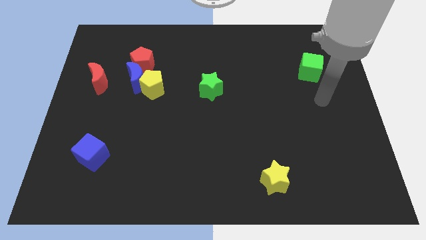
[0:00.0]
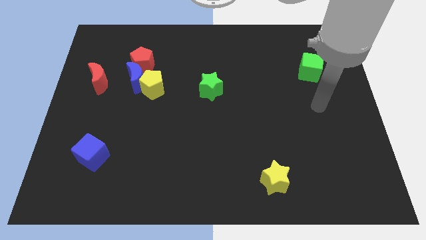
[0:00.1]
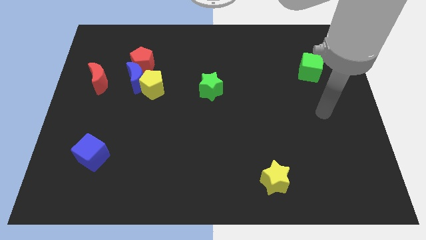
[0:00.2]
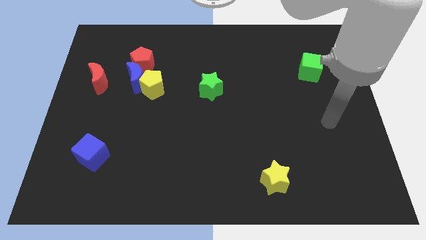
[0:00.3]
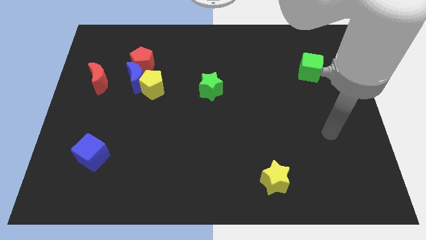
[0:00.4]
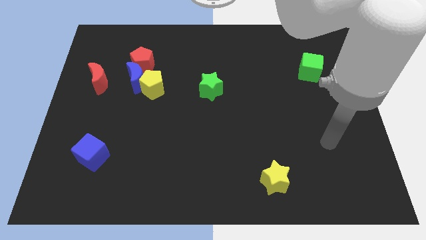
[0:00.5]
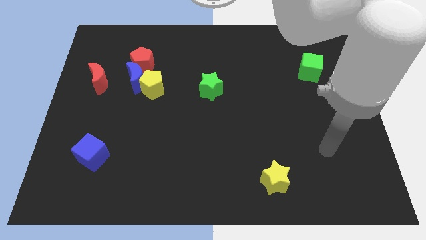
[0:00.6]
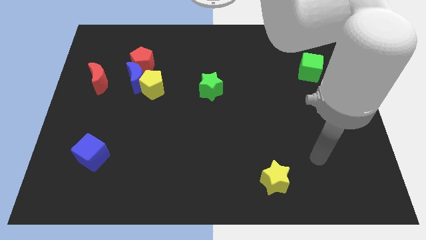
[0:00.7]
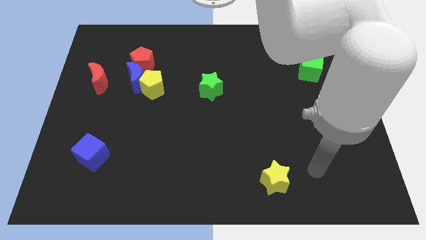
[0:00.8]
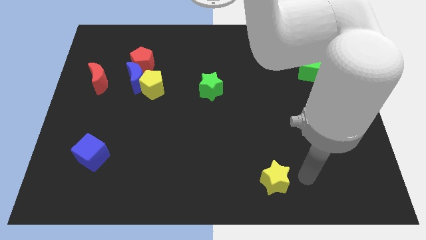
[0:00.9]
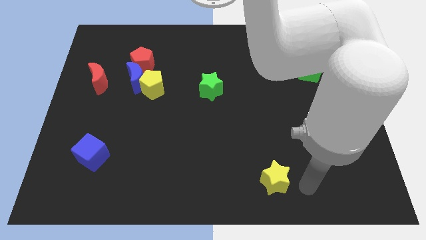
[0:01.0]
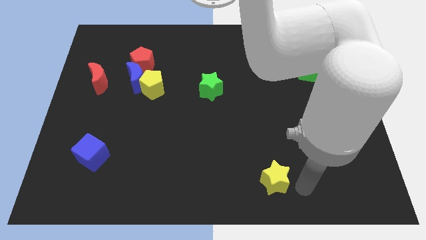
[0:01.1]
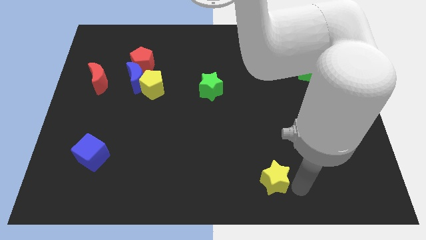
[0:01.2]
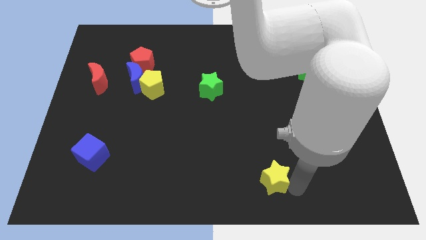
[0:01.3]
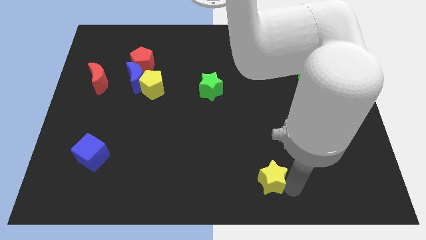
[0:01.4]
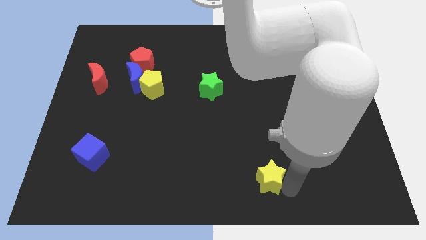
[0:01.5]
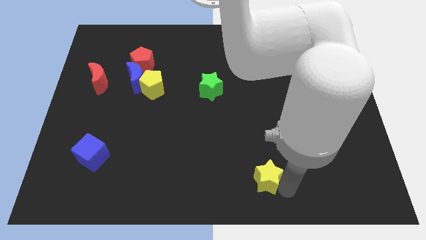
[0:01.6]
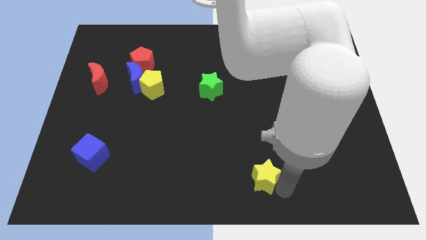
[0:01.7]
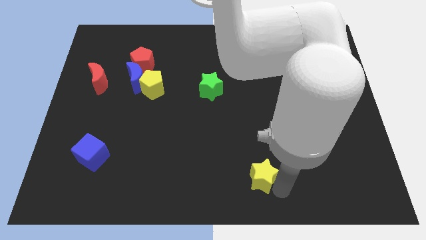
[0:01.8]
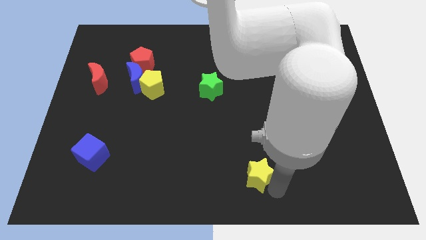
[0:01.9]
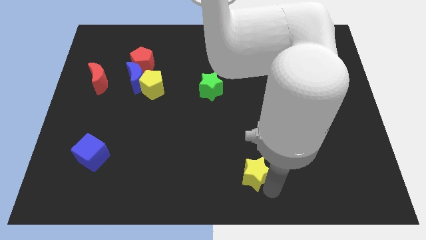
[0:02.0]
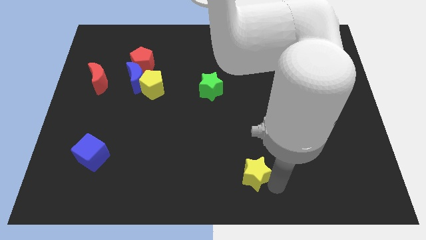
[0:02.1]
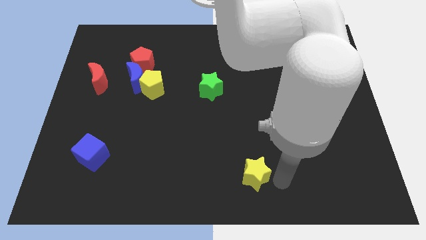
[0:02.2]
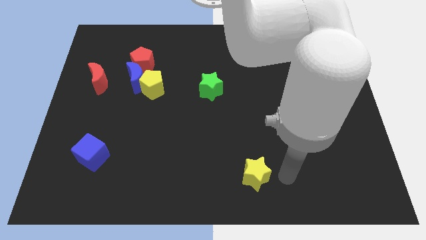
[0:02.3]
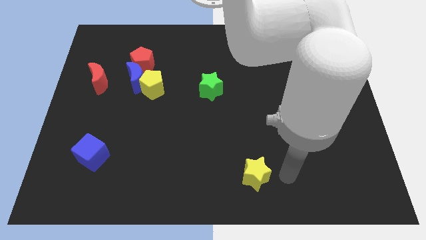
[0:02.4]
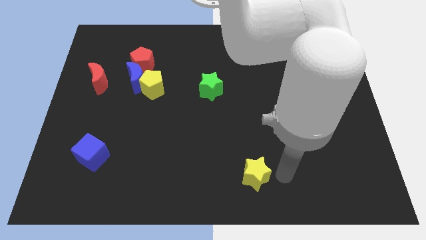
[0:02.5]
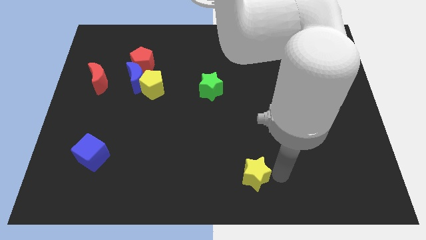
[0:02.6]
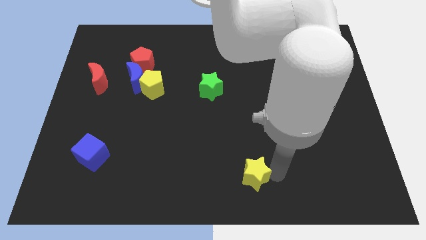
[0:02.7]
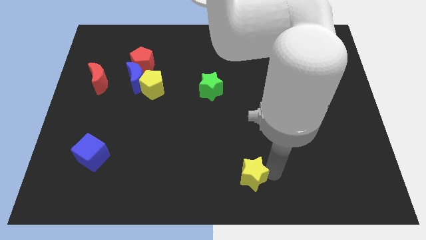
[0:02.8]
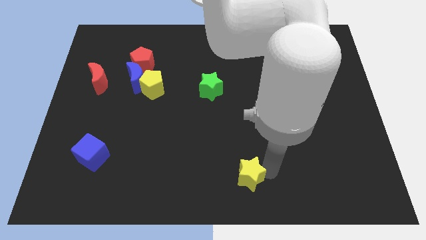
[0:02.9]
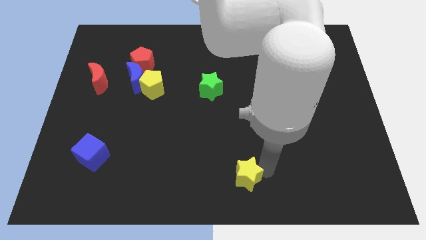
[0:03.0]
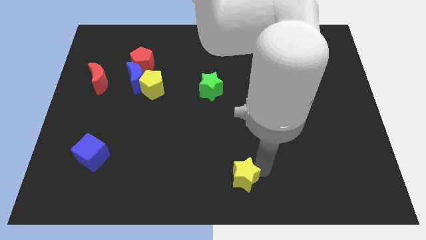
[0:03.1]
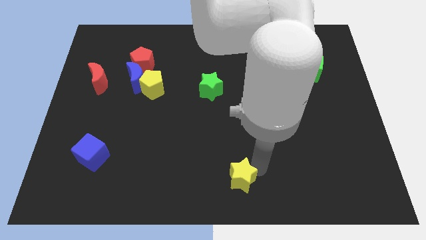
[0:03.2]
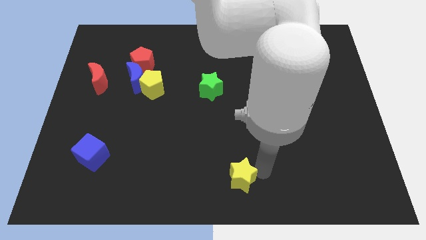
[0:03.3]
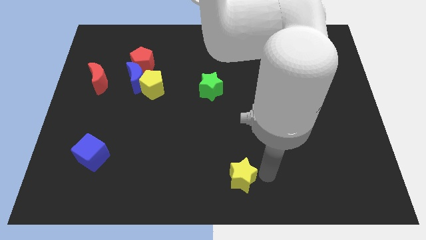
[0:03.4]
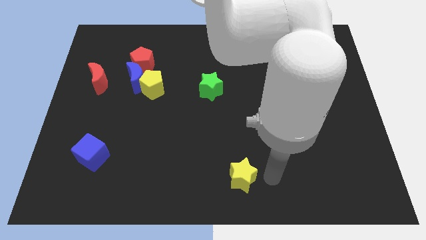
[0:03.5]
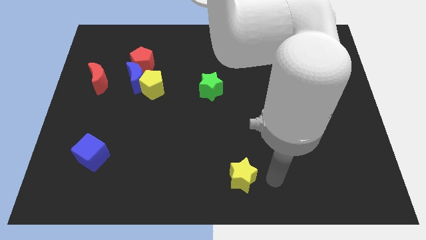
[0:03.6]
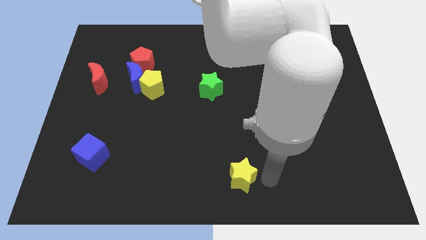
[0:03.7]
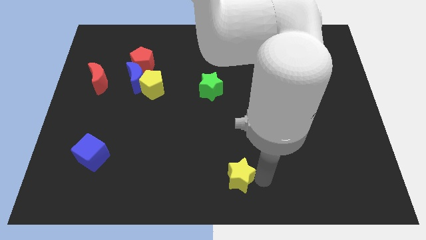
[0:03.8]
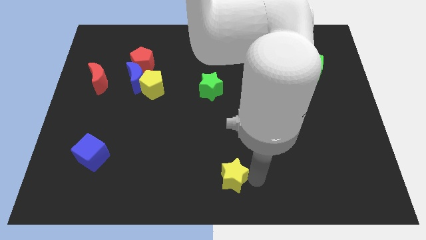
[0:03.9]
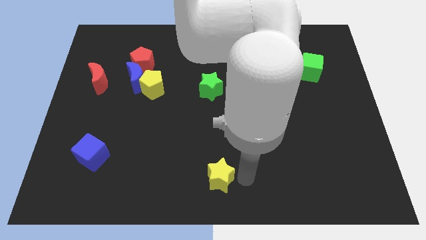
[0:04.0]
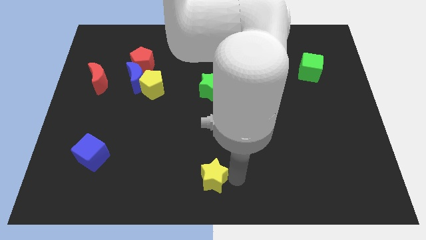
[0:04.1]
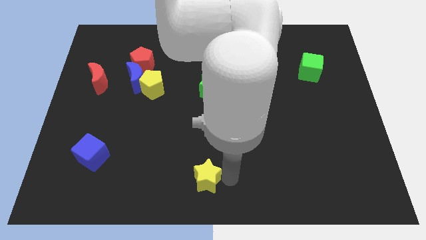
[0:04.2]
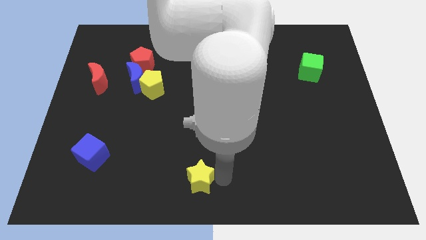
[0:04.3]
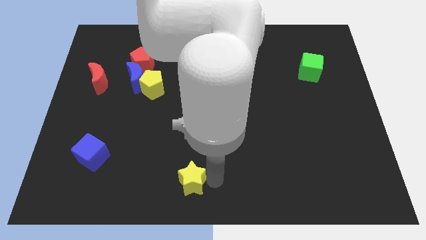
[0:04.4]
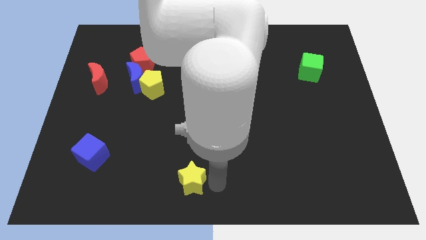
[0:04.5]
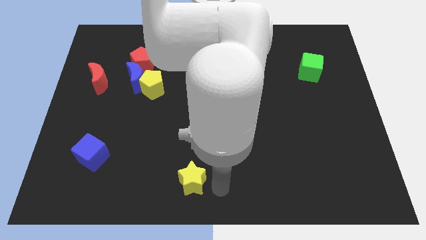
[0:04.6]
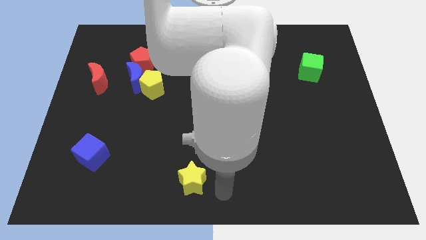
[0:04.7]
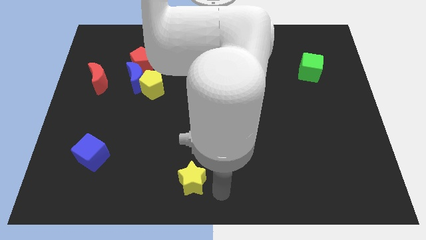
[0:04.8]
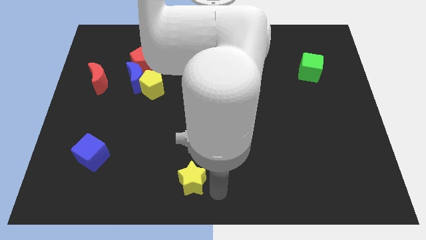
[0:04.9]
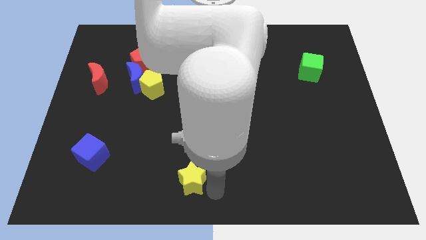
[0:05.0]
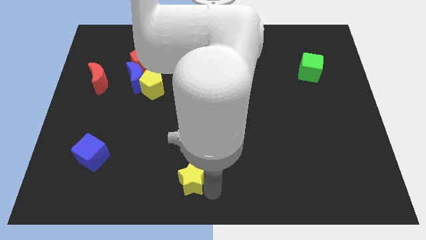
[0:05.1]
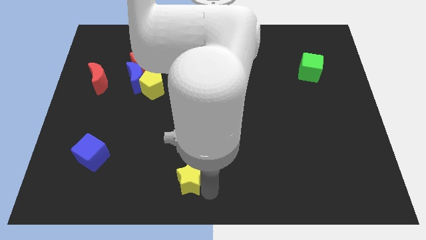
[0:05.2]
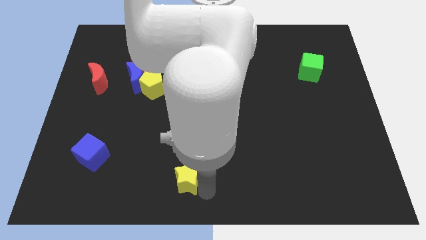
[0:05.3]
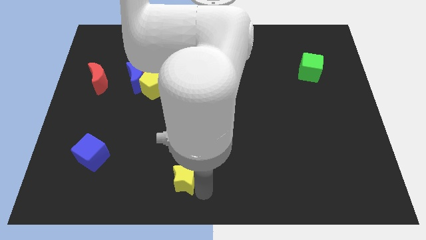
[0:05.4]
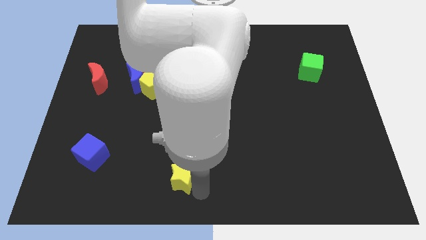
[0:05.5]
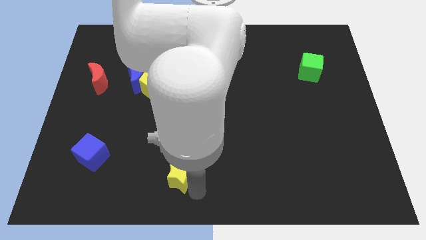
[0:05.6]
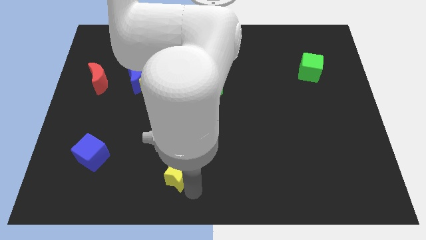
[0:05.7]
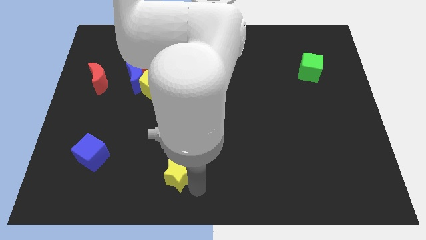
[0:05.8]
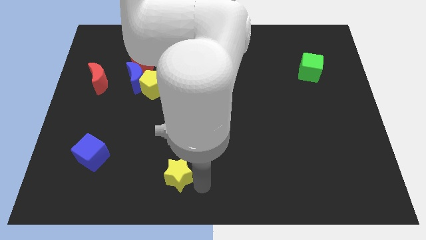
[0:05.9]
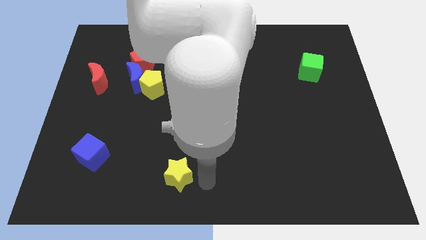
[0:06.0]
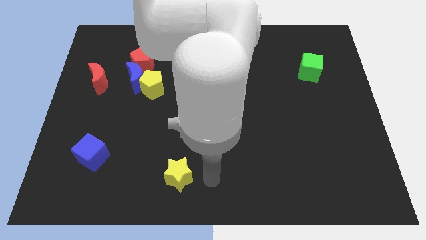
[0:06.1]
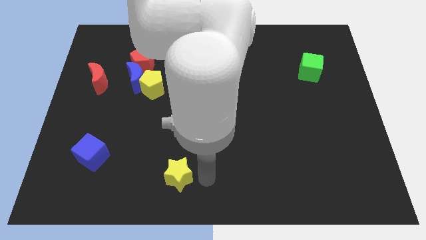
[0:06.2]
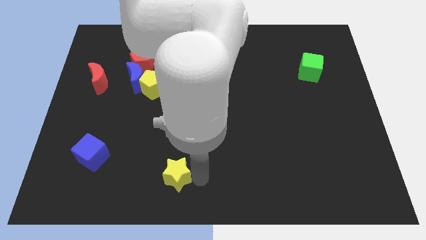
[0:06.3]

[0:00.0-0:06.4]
push the yellow star left

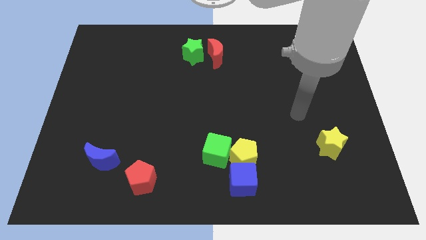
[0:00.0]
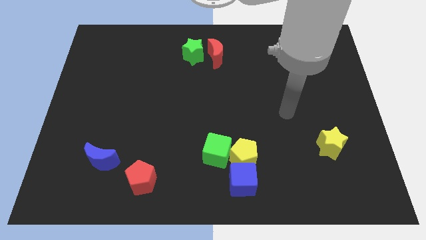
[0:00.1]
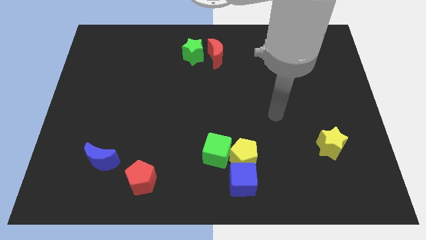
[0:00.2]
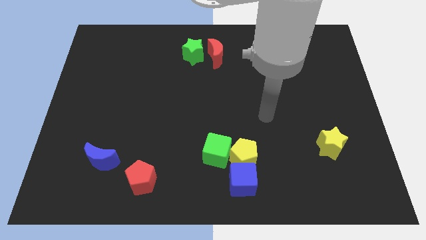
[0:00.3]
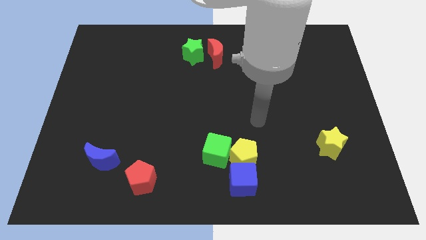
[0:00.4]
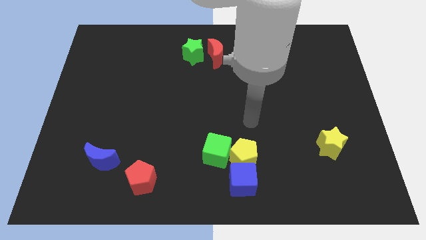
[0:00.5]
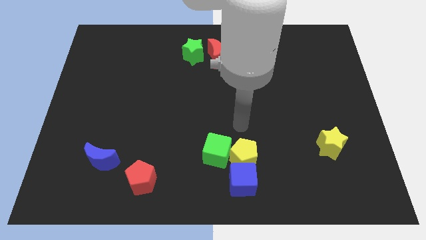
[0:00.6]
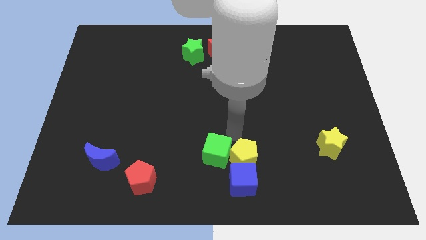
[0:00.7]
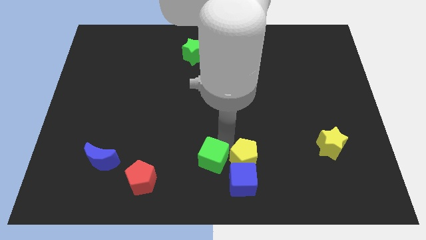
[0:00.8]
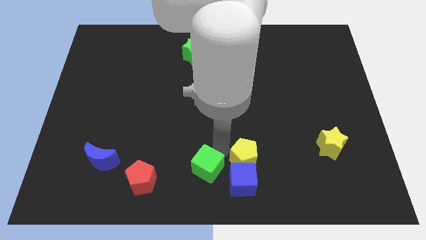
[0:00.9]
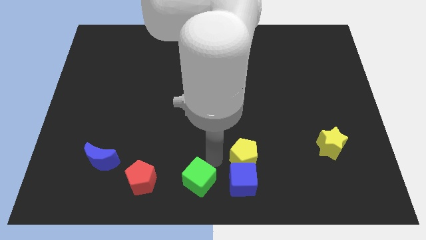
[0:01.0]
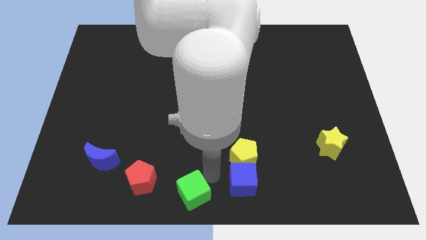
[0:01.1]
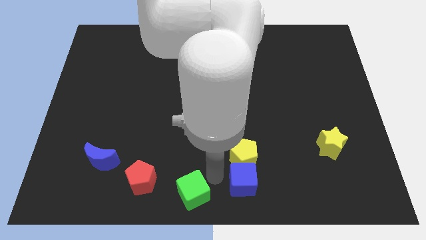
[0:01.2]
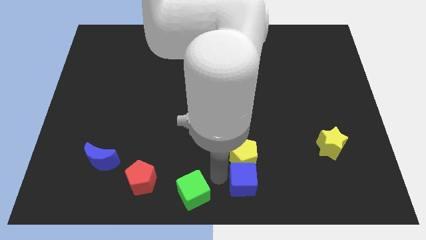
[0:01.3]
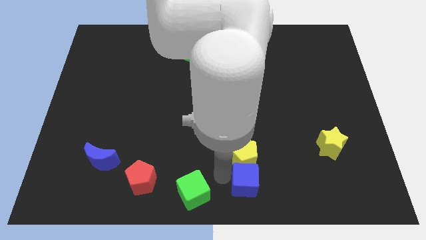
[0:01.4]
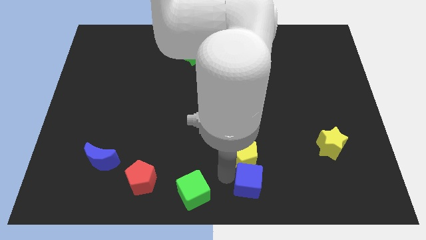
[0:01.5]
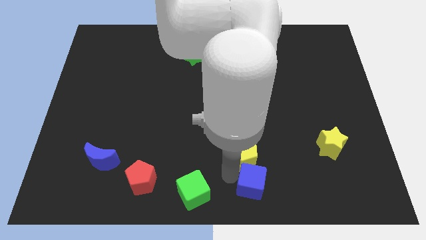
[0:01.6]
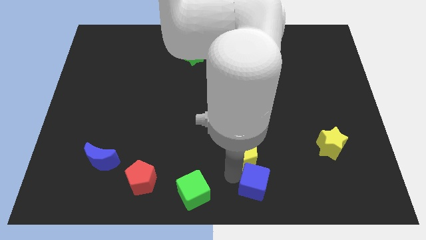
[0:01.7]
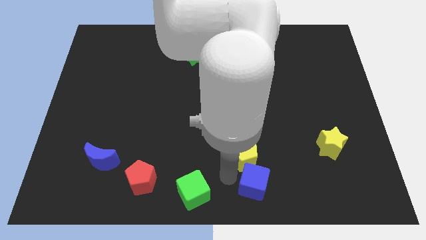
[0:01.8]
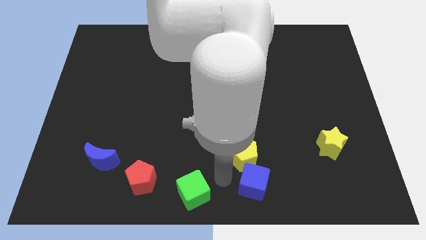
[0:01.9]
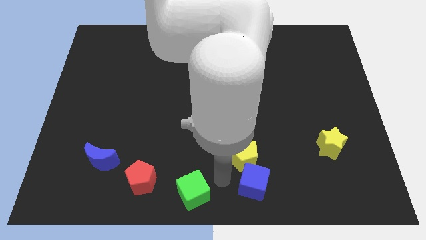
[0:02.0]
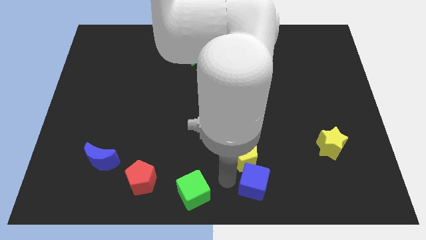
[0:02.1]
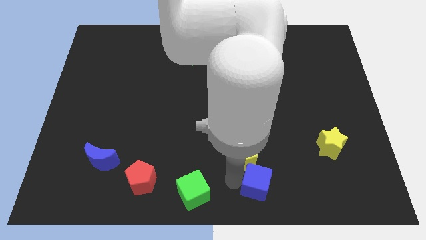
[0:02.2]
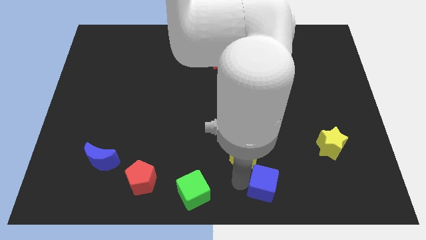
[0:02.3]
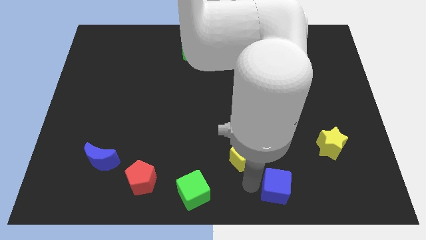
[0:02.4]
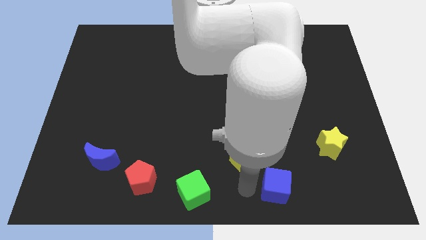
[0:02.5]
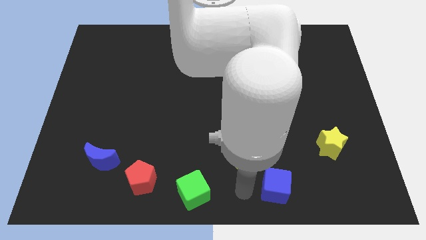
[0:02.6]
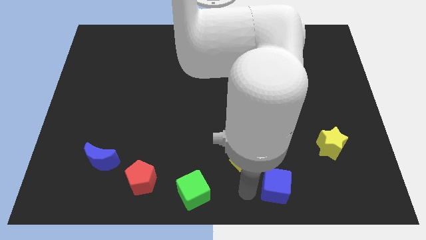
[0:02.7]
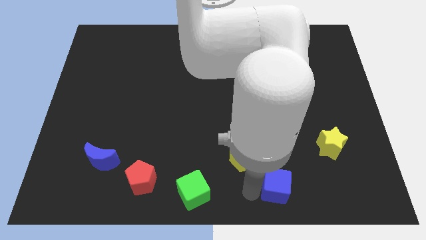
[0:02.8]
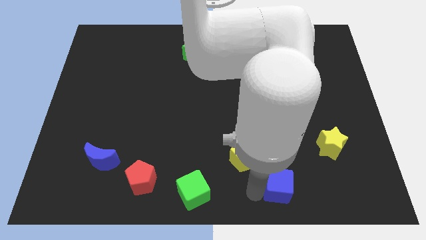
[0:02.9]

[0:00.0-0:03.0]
slide the blue cube right a bit
